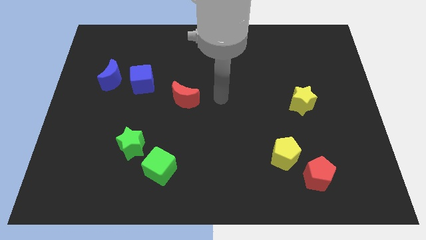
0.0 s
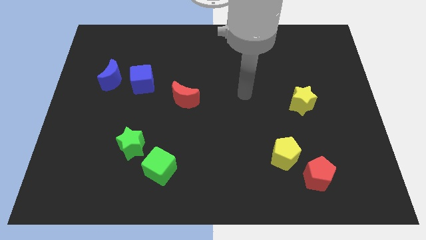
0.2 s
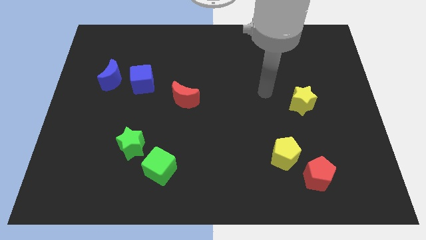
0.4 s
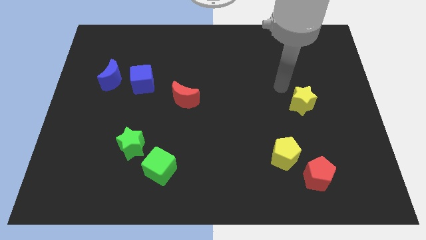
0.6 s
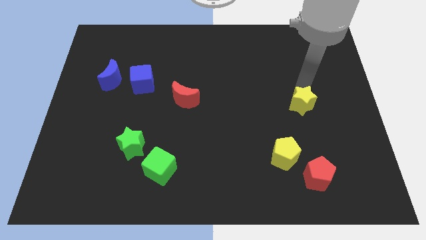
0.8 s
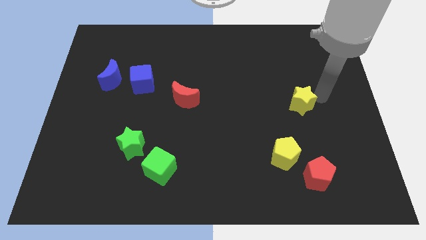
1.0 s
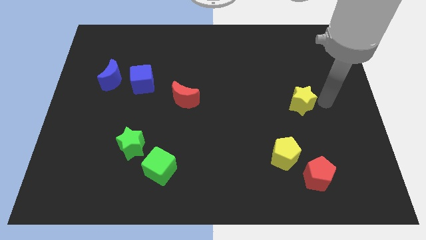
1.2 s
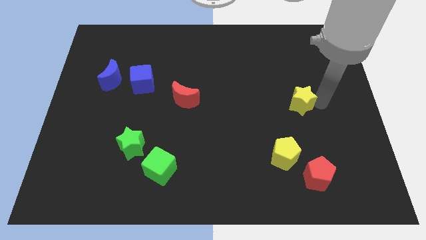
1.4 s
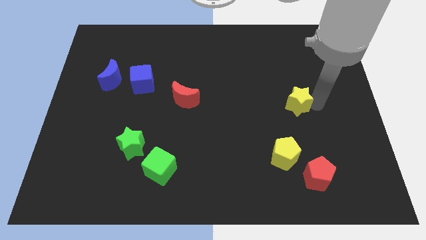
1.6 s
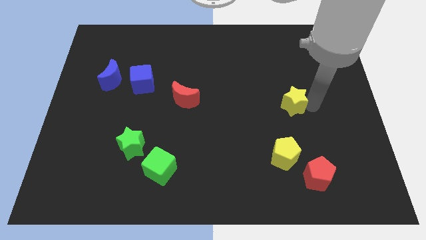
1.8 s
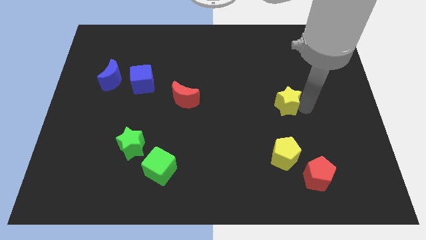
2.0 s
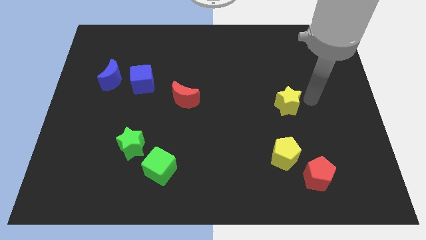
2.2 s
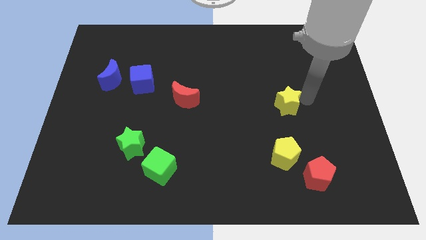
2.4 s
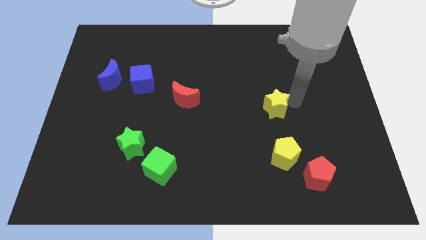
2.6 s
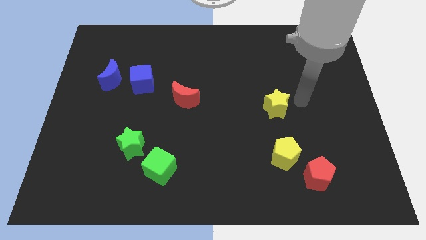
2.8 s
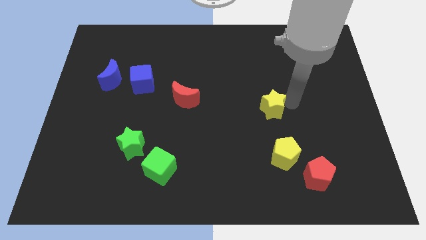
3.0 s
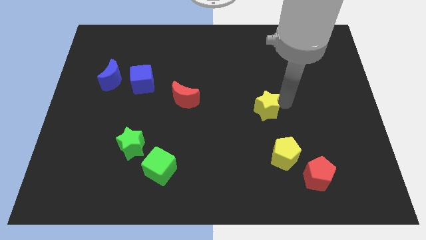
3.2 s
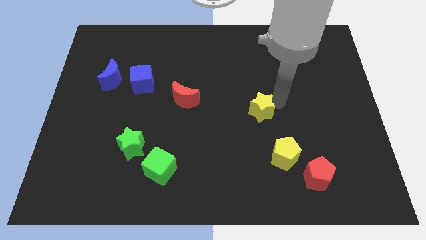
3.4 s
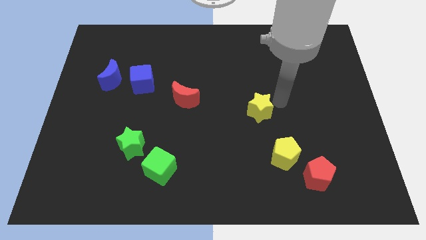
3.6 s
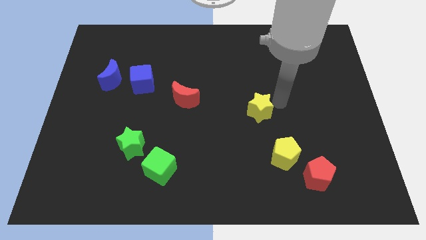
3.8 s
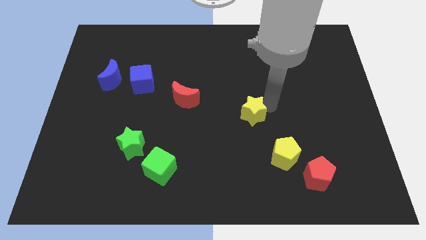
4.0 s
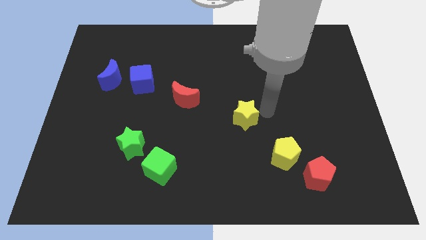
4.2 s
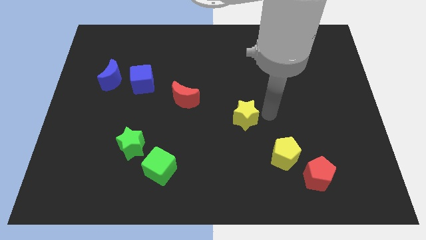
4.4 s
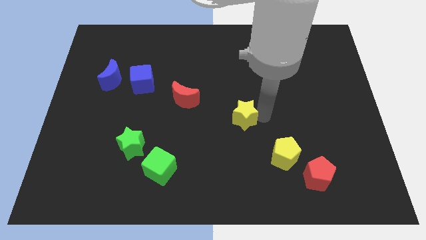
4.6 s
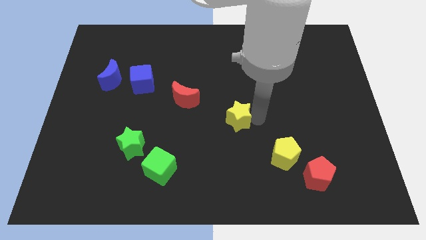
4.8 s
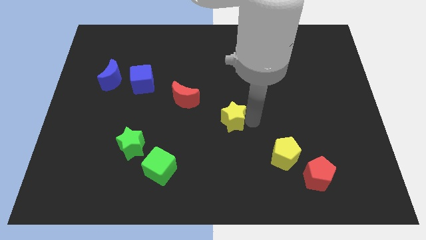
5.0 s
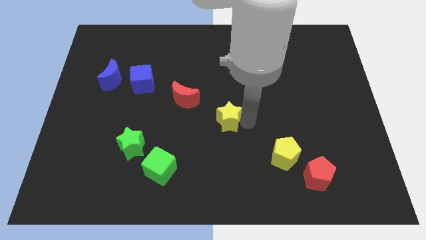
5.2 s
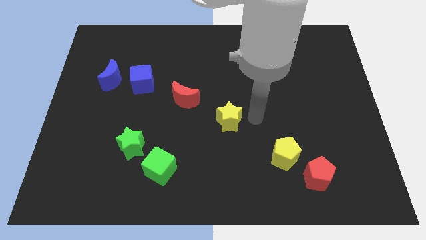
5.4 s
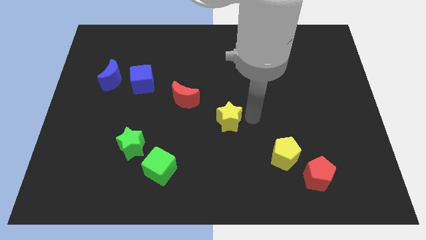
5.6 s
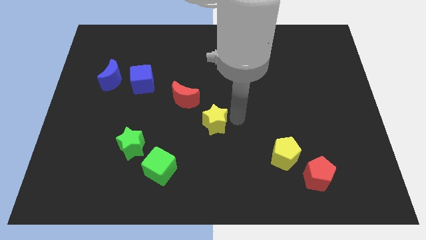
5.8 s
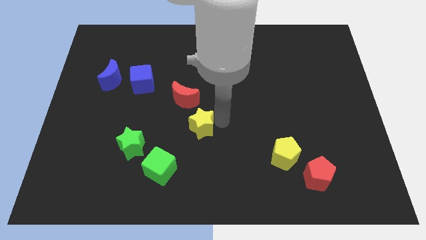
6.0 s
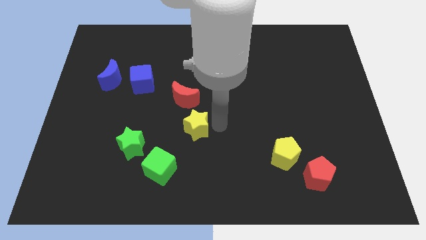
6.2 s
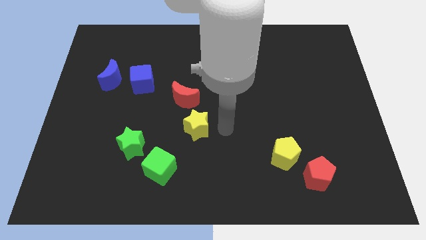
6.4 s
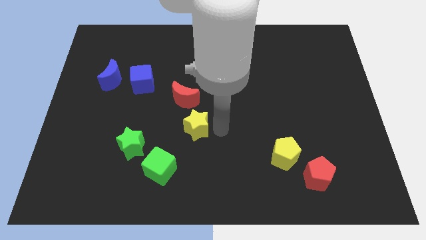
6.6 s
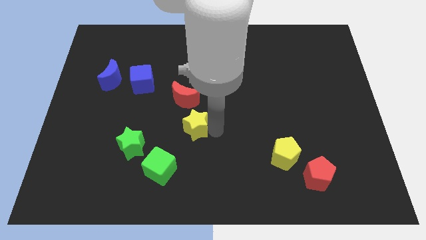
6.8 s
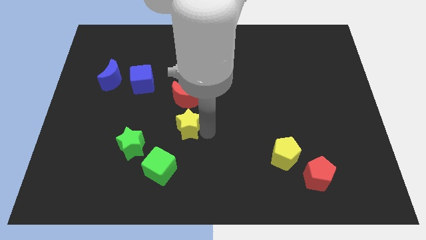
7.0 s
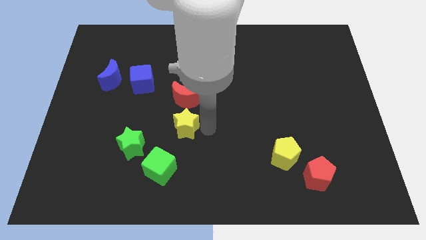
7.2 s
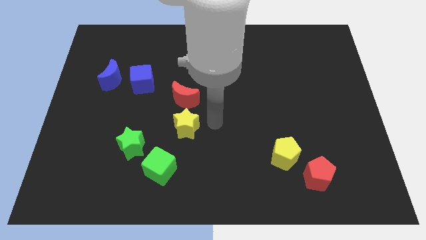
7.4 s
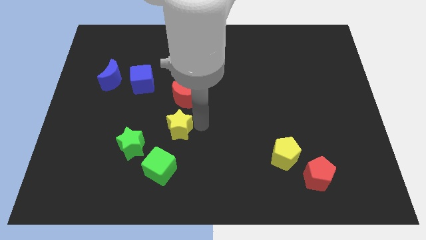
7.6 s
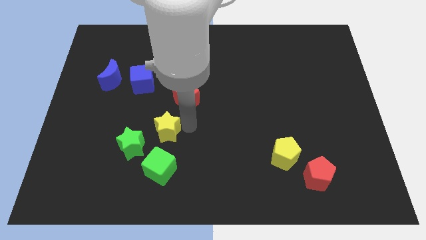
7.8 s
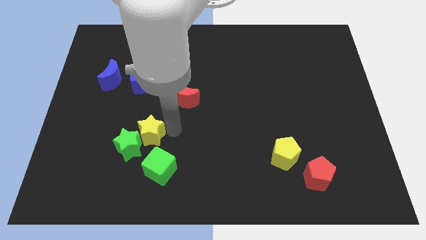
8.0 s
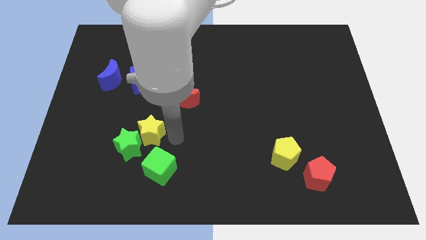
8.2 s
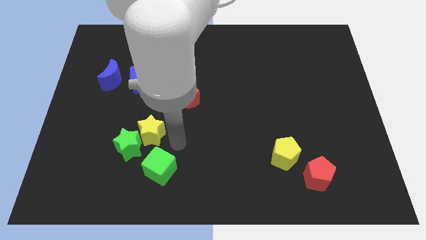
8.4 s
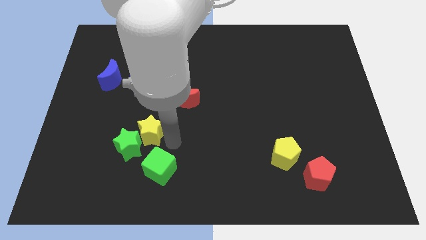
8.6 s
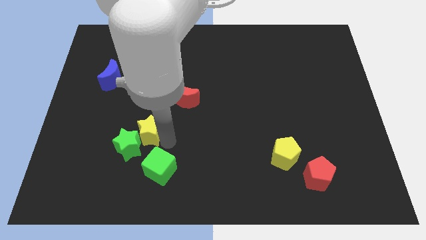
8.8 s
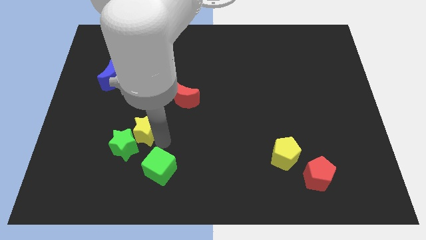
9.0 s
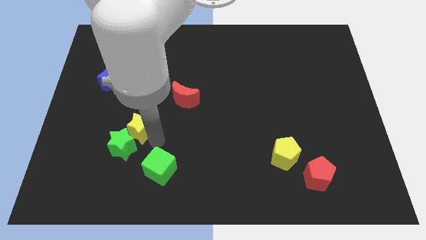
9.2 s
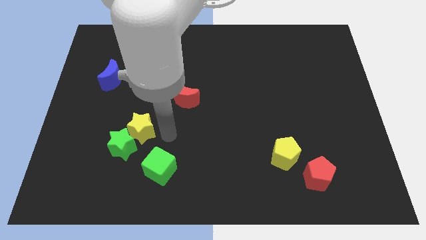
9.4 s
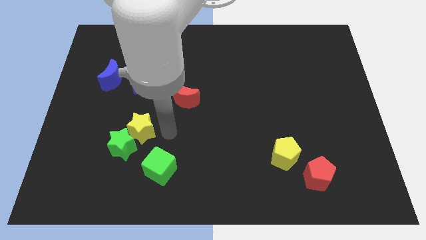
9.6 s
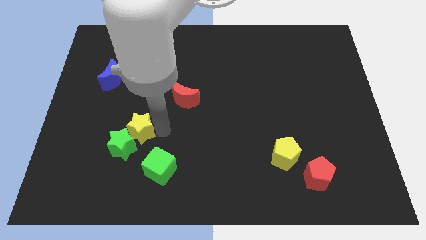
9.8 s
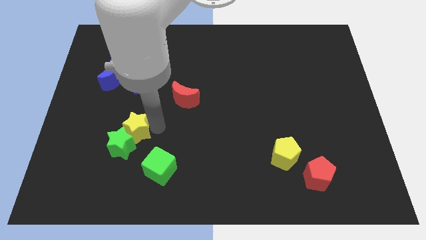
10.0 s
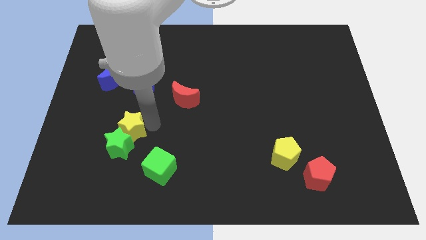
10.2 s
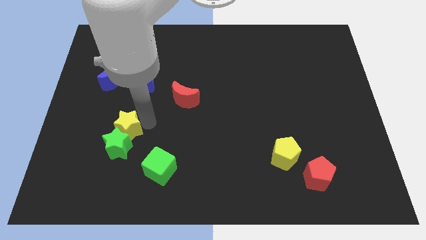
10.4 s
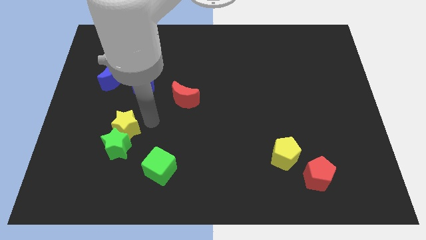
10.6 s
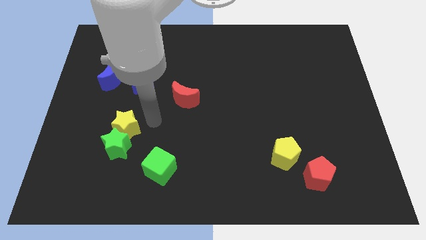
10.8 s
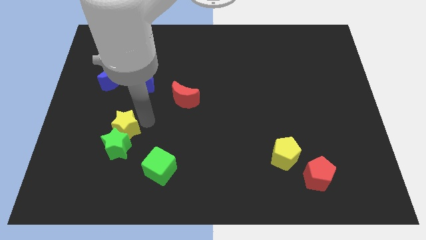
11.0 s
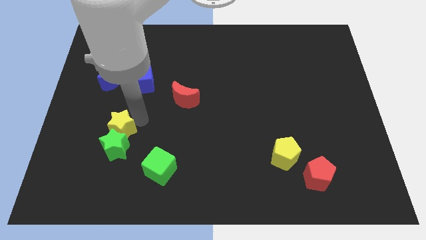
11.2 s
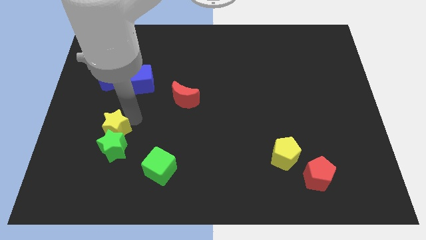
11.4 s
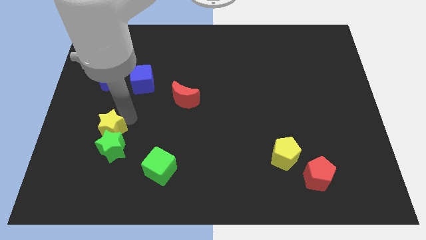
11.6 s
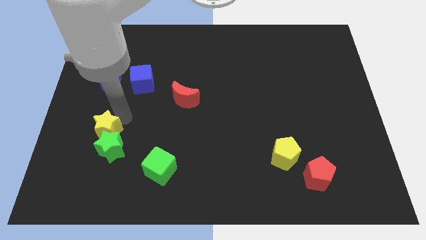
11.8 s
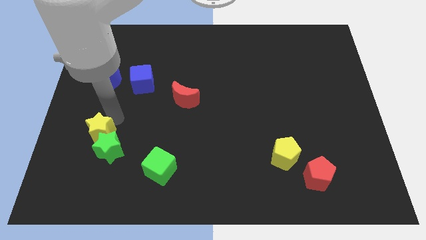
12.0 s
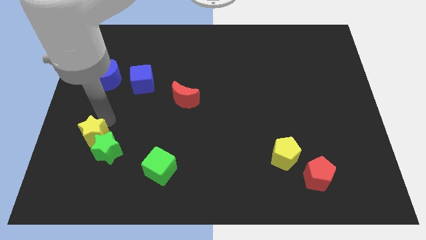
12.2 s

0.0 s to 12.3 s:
put the yellow star to the left side of the green star
